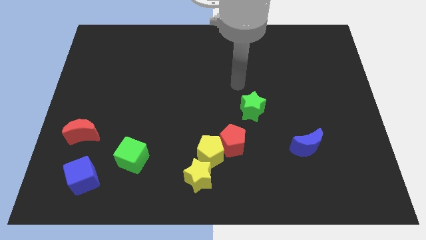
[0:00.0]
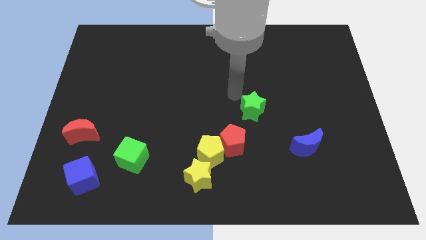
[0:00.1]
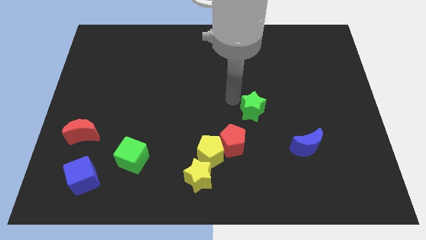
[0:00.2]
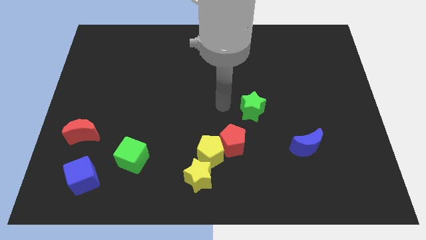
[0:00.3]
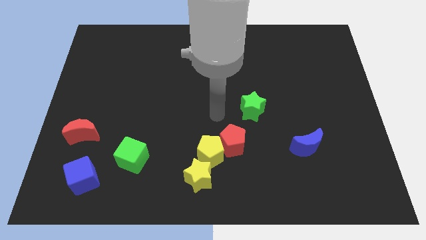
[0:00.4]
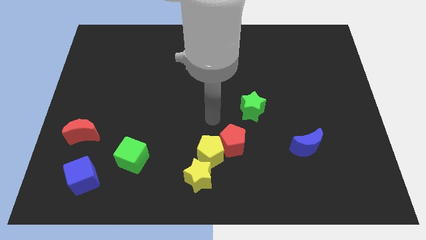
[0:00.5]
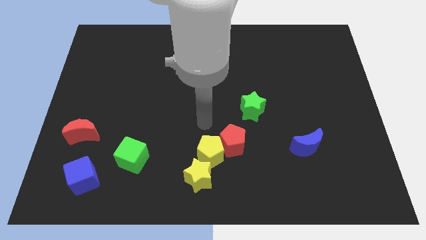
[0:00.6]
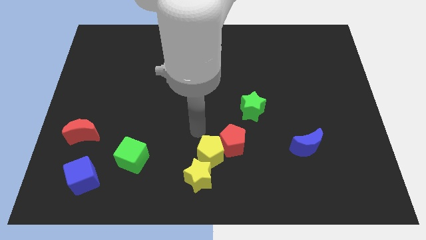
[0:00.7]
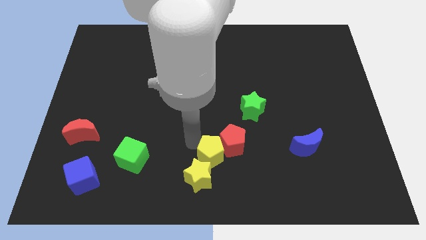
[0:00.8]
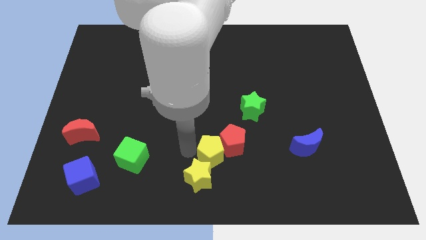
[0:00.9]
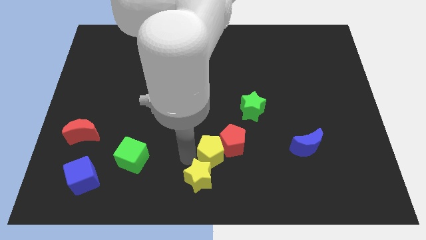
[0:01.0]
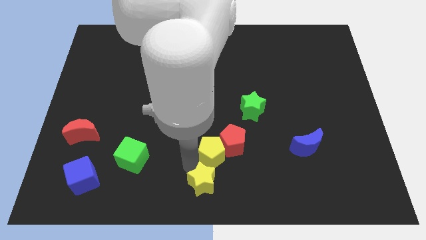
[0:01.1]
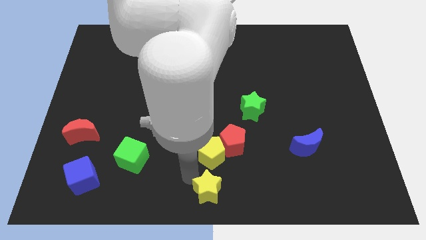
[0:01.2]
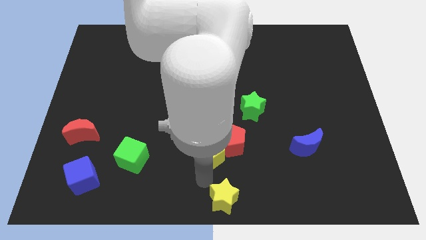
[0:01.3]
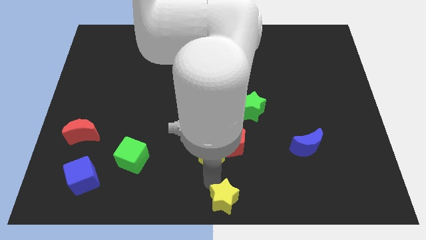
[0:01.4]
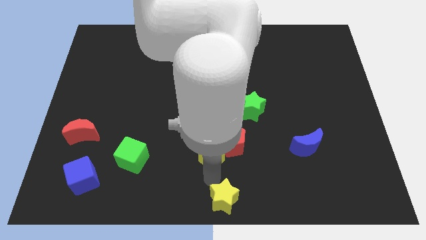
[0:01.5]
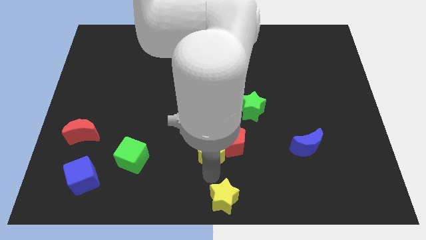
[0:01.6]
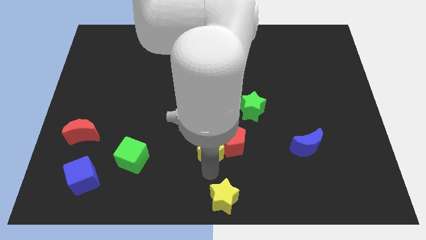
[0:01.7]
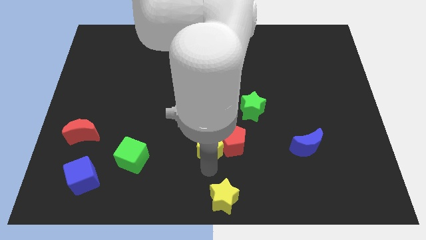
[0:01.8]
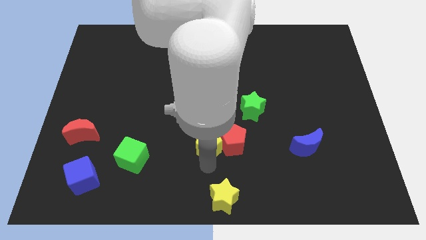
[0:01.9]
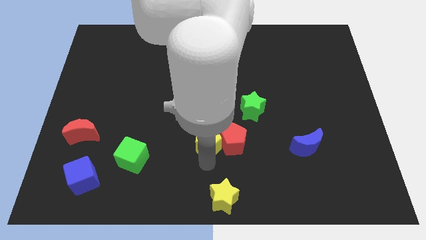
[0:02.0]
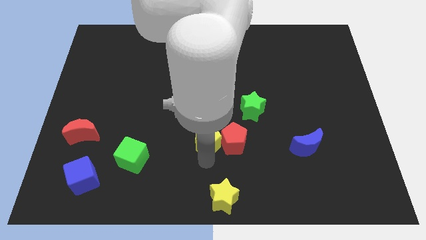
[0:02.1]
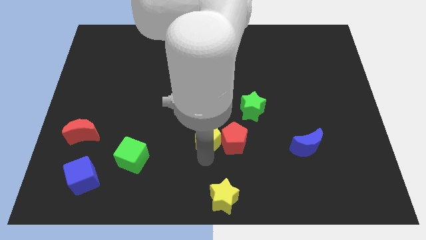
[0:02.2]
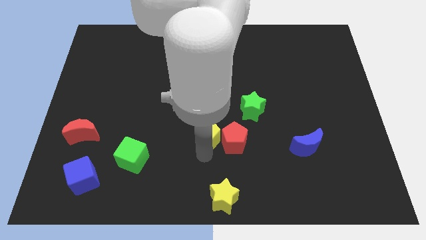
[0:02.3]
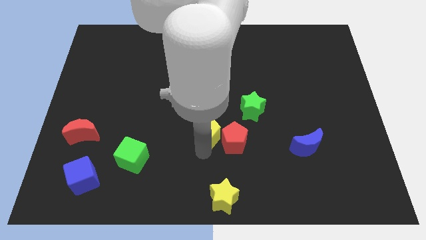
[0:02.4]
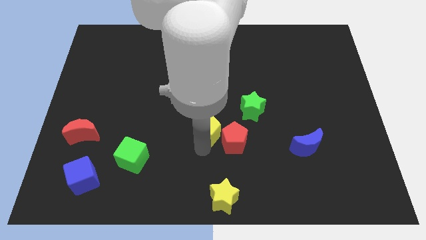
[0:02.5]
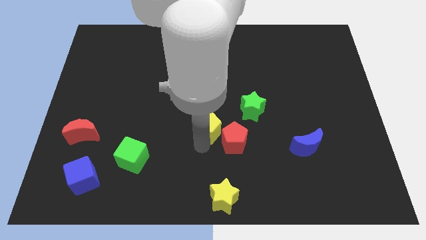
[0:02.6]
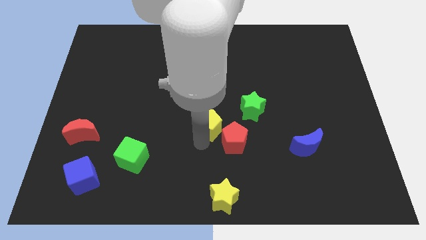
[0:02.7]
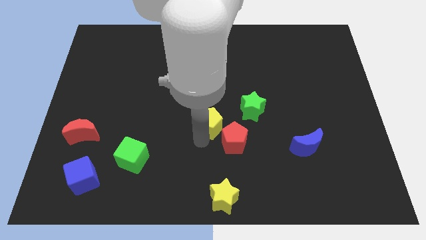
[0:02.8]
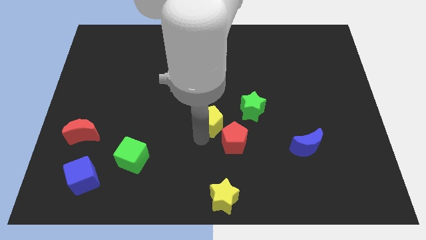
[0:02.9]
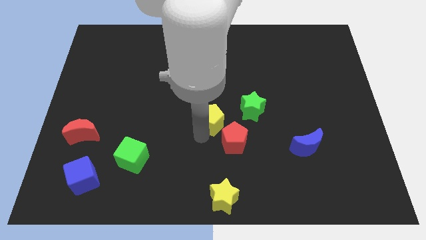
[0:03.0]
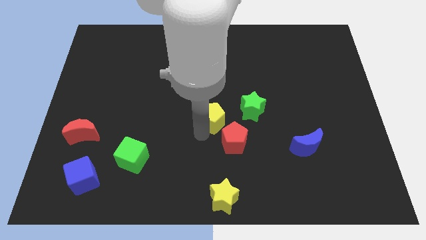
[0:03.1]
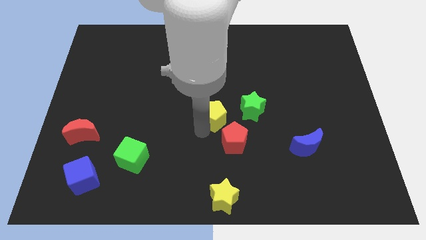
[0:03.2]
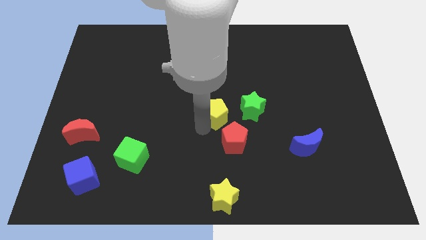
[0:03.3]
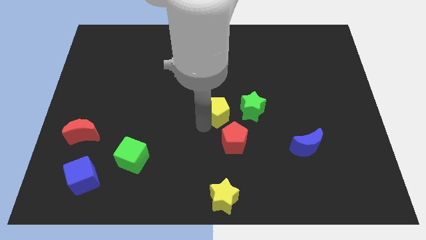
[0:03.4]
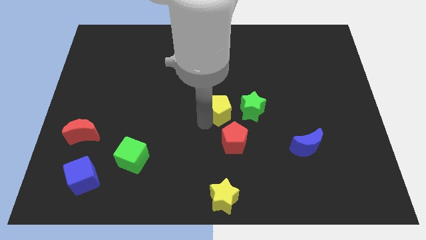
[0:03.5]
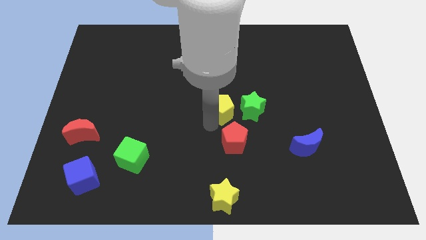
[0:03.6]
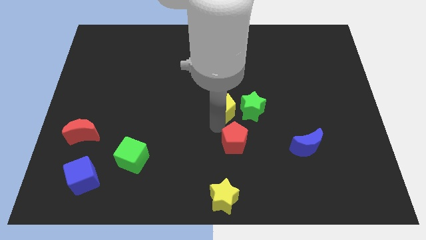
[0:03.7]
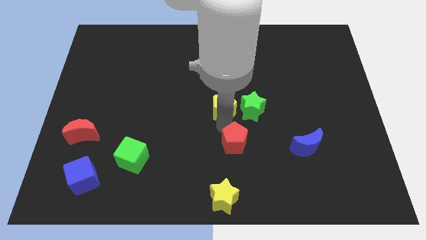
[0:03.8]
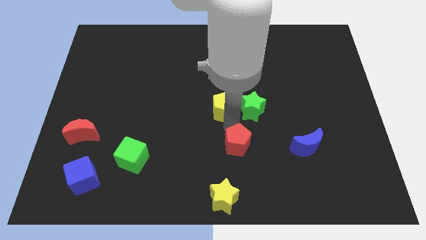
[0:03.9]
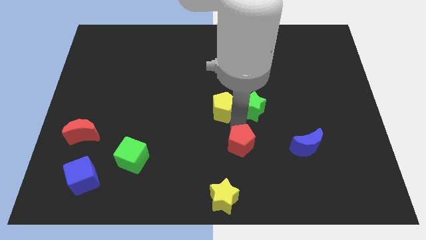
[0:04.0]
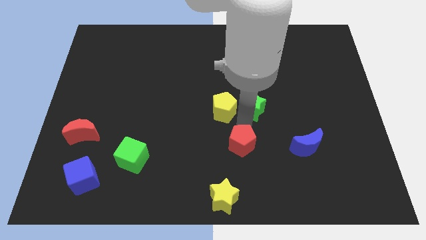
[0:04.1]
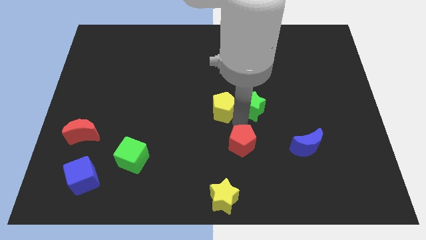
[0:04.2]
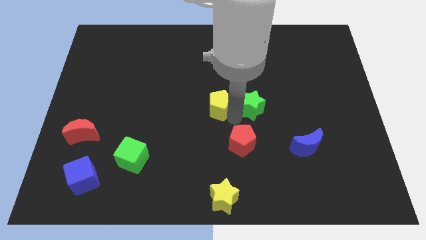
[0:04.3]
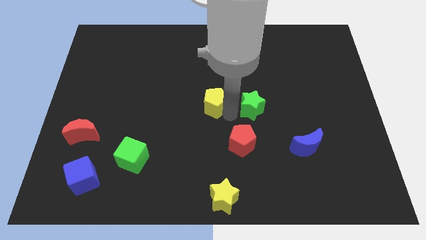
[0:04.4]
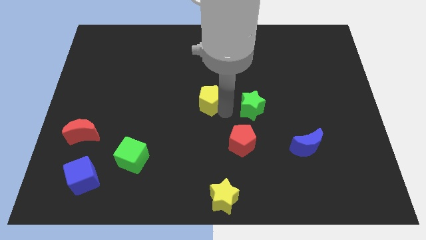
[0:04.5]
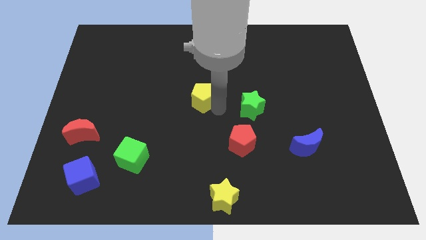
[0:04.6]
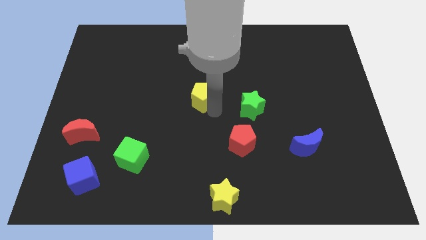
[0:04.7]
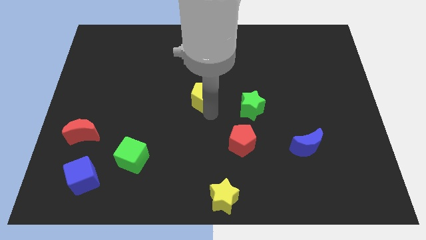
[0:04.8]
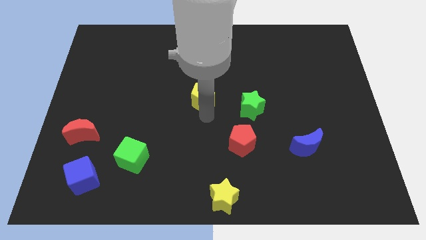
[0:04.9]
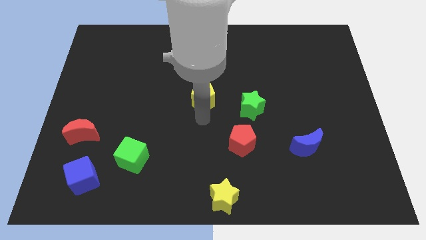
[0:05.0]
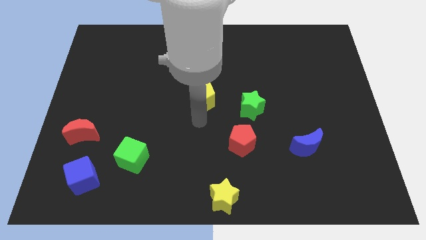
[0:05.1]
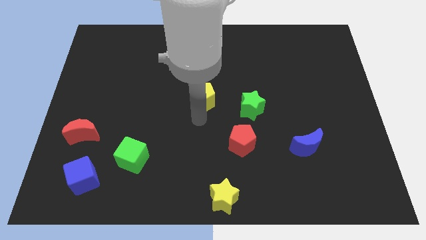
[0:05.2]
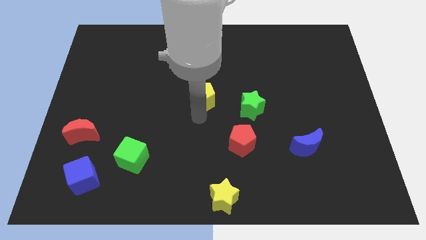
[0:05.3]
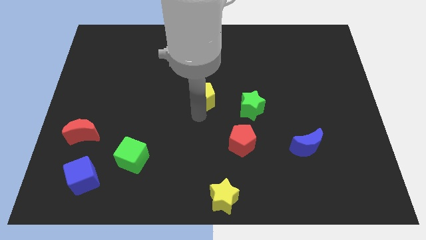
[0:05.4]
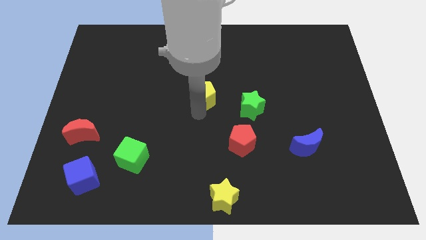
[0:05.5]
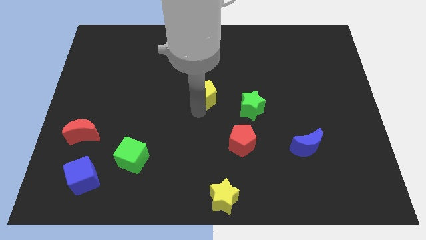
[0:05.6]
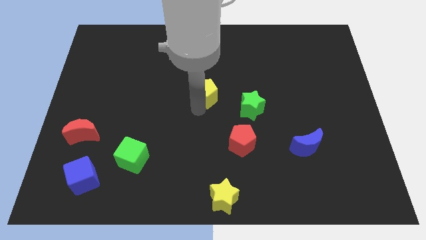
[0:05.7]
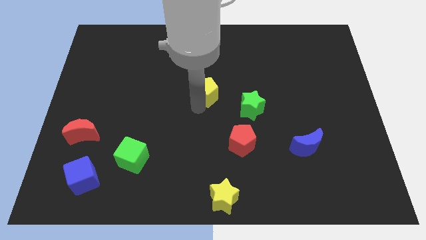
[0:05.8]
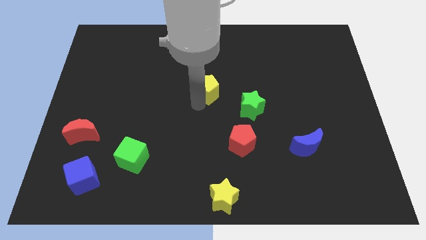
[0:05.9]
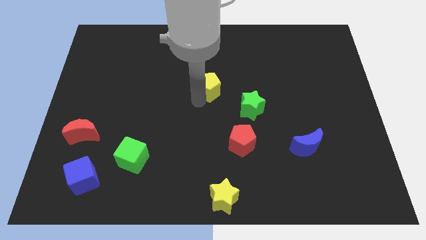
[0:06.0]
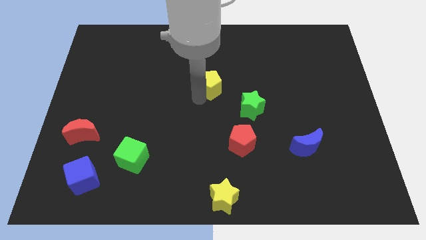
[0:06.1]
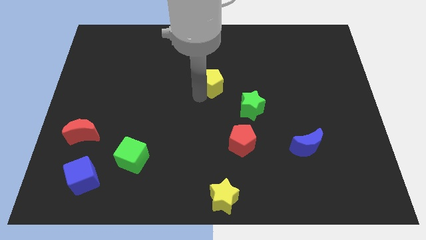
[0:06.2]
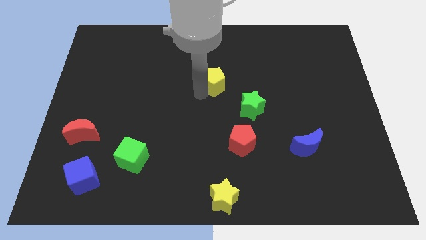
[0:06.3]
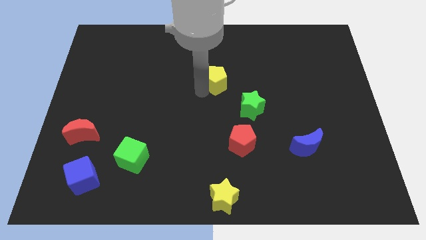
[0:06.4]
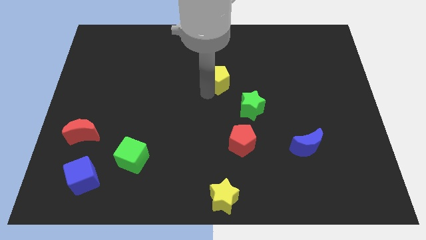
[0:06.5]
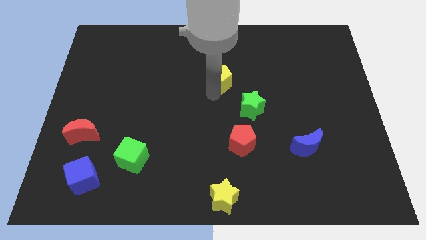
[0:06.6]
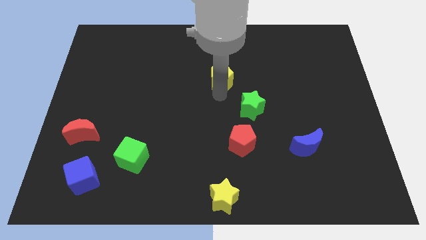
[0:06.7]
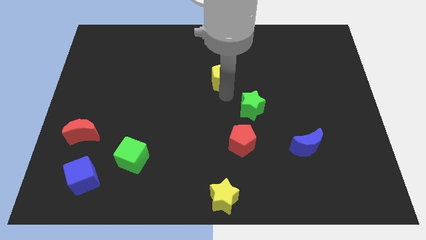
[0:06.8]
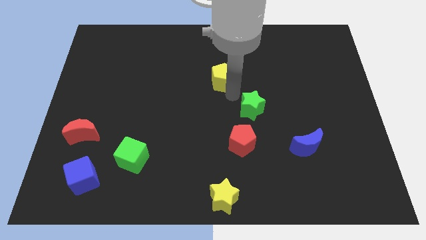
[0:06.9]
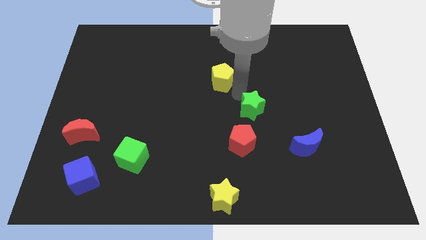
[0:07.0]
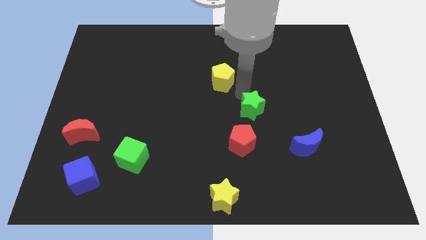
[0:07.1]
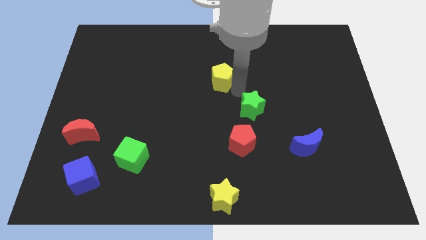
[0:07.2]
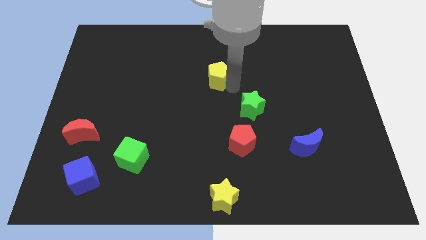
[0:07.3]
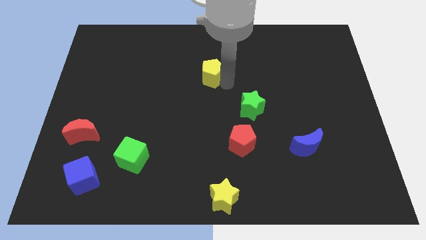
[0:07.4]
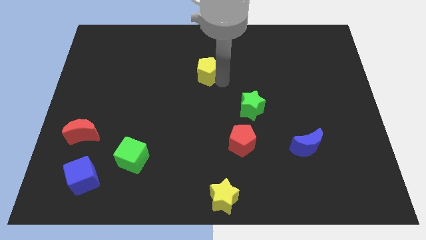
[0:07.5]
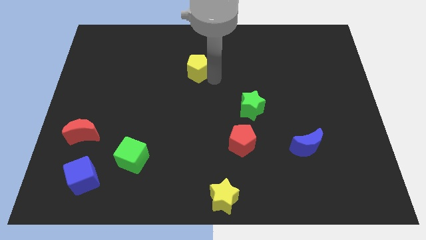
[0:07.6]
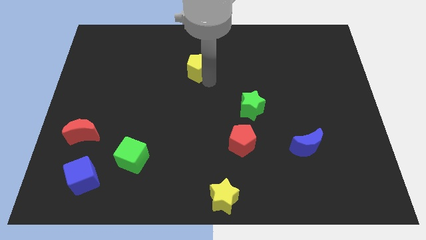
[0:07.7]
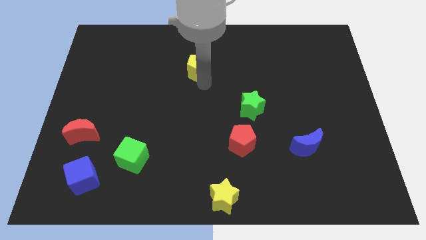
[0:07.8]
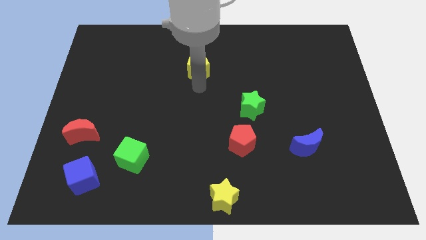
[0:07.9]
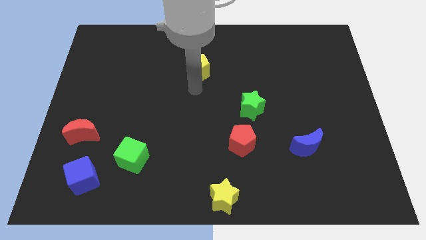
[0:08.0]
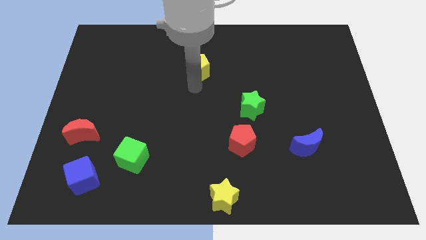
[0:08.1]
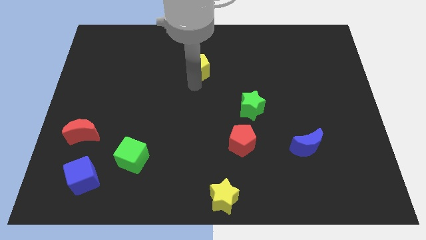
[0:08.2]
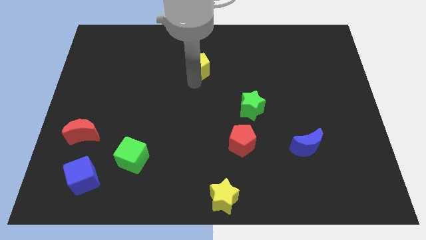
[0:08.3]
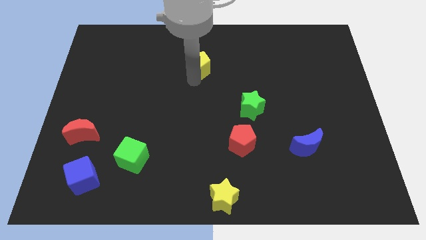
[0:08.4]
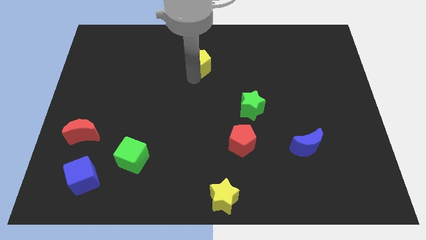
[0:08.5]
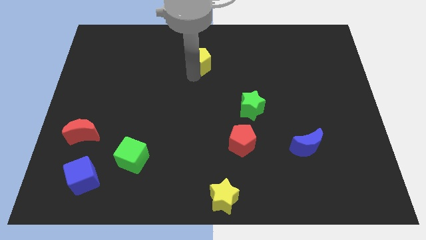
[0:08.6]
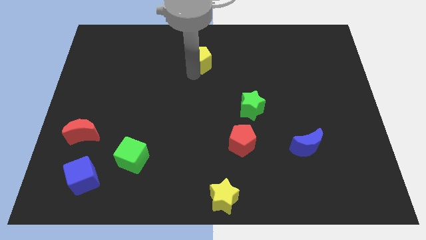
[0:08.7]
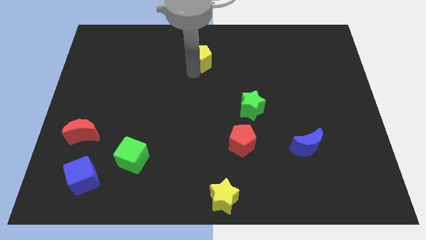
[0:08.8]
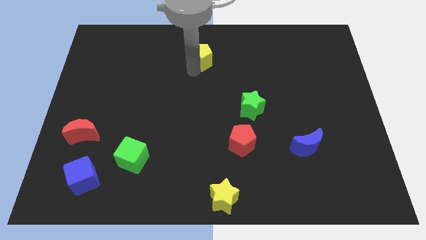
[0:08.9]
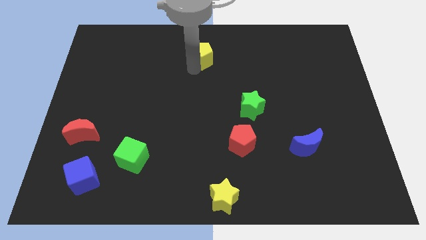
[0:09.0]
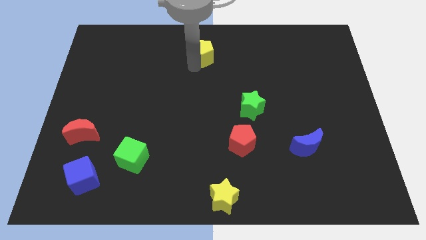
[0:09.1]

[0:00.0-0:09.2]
push the yellow pentagon to the top side
